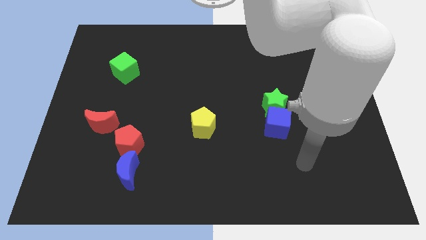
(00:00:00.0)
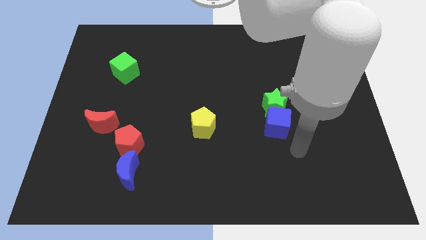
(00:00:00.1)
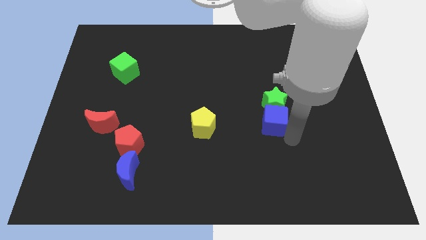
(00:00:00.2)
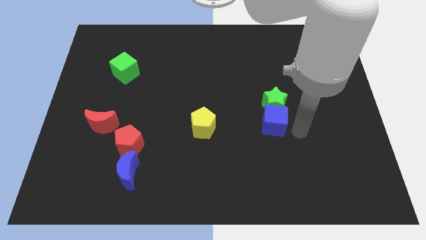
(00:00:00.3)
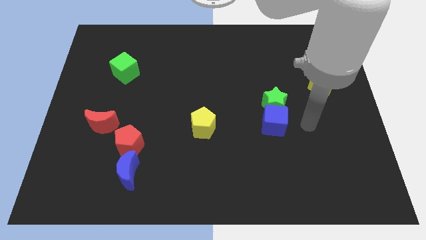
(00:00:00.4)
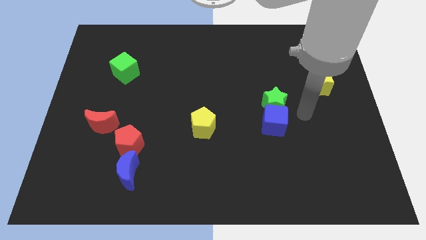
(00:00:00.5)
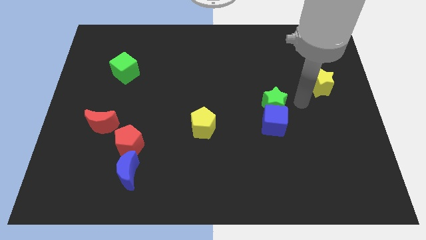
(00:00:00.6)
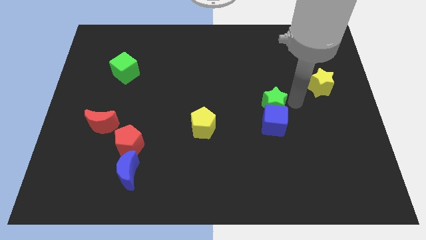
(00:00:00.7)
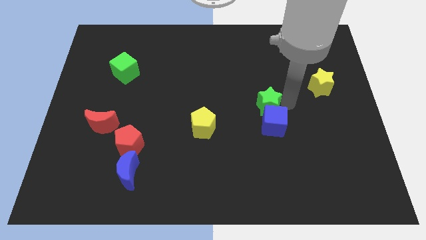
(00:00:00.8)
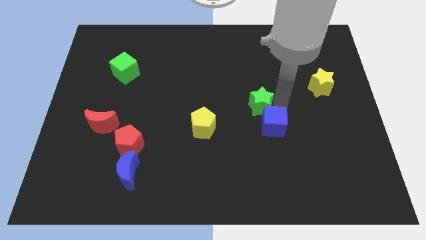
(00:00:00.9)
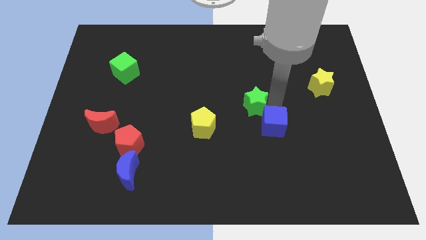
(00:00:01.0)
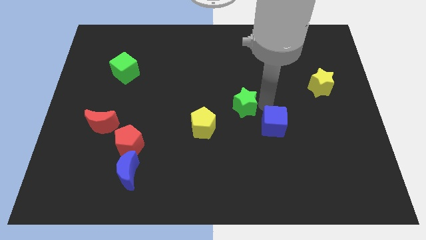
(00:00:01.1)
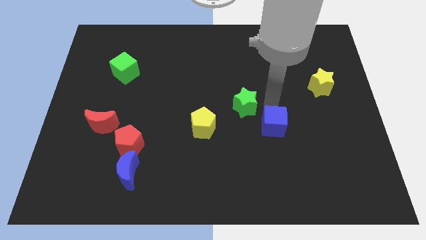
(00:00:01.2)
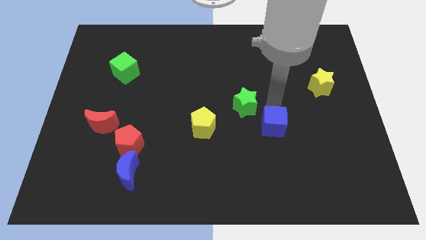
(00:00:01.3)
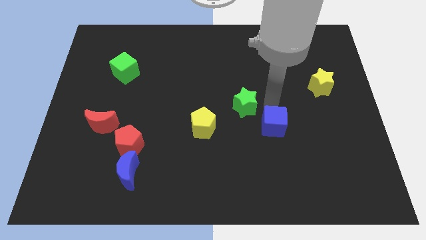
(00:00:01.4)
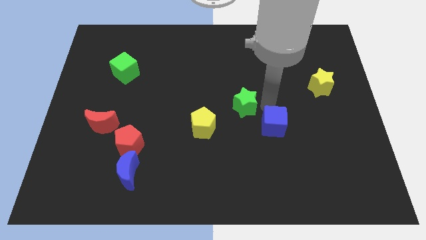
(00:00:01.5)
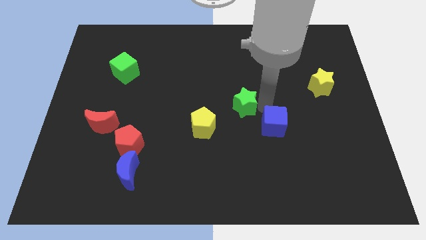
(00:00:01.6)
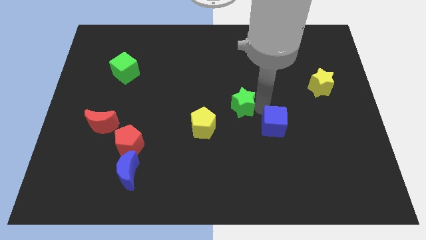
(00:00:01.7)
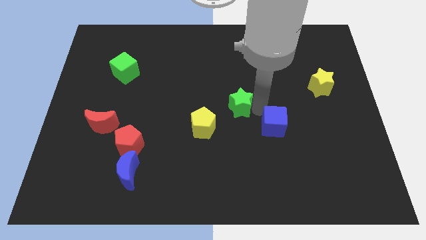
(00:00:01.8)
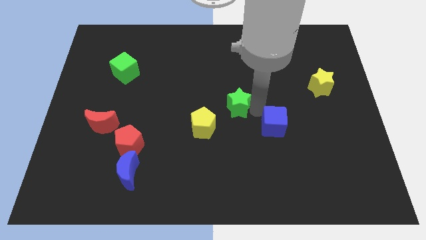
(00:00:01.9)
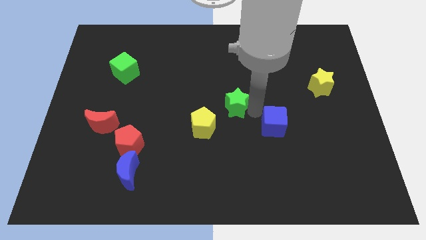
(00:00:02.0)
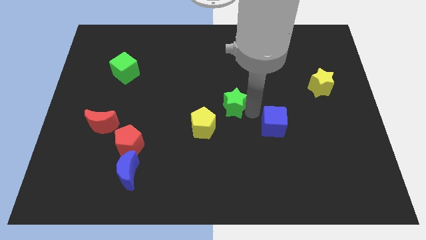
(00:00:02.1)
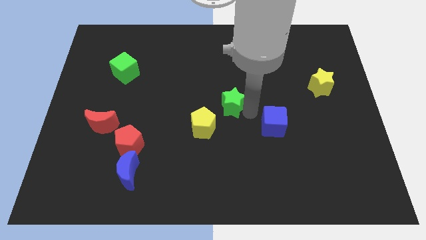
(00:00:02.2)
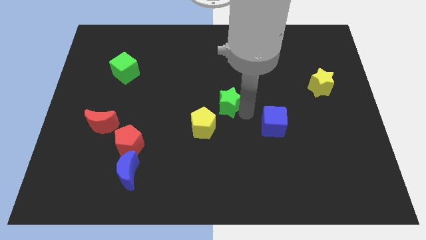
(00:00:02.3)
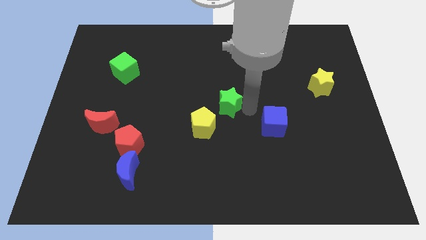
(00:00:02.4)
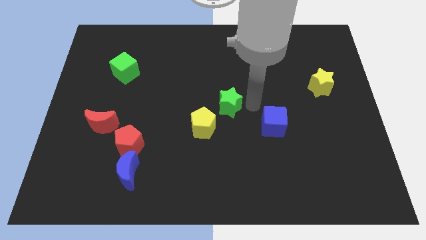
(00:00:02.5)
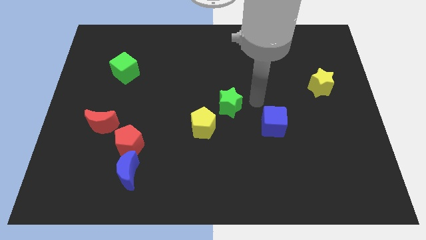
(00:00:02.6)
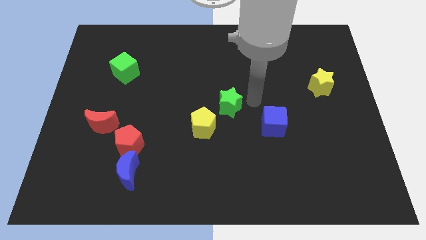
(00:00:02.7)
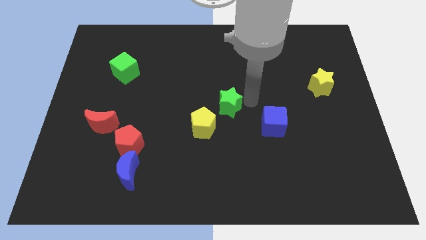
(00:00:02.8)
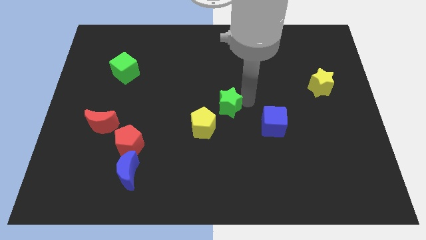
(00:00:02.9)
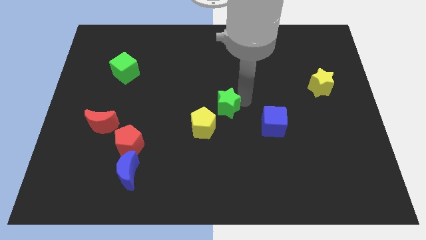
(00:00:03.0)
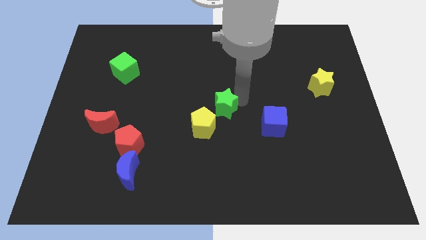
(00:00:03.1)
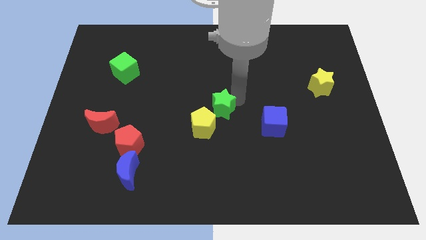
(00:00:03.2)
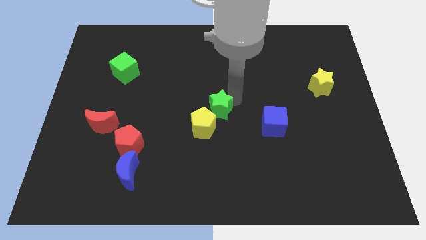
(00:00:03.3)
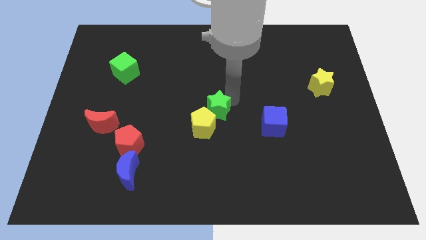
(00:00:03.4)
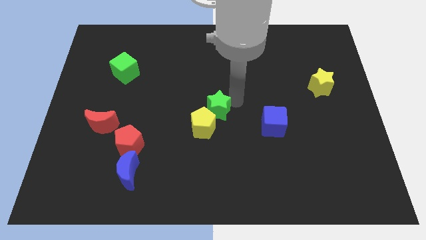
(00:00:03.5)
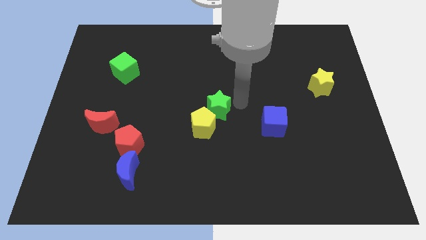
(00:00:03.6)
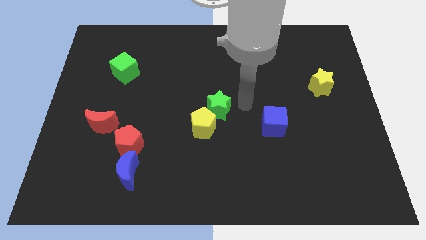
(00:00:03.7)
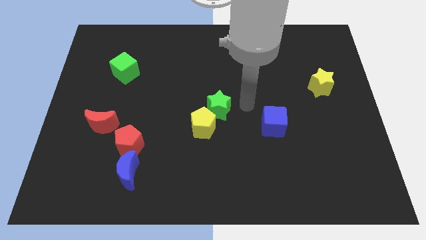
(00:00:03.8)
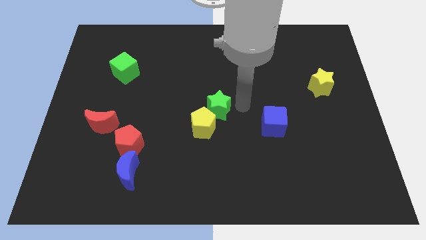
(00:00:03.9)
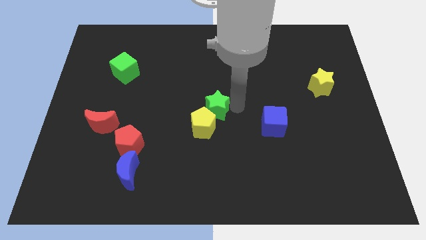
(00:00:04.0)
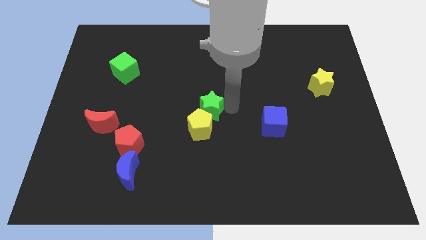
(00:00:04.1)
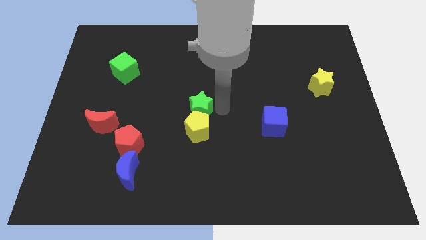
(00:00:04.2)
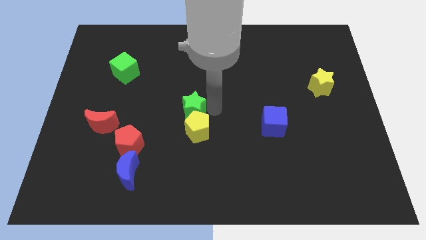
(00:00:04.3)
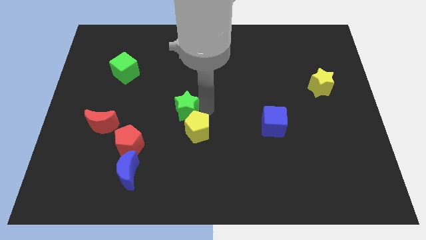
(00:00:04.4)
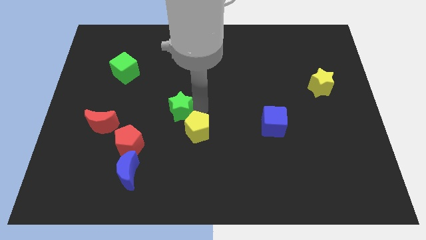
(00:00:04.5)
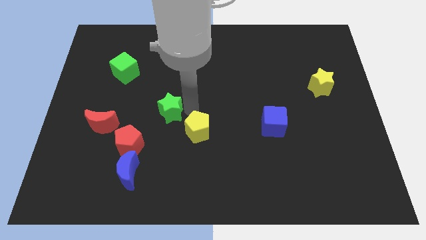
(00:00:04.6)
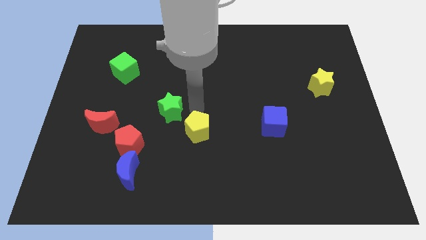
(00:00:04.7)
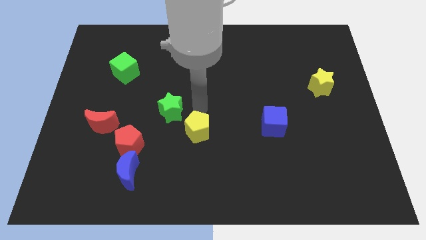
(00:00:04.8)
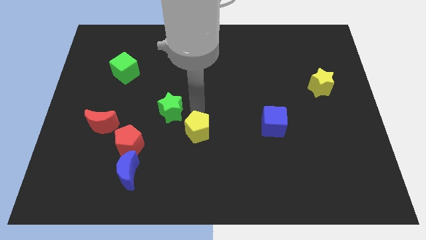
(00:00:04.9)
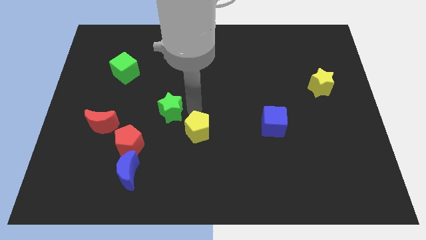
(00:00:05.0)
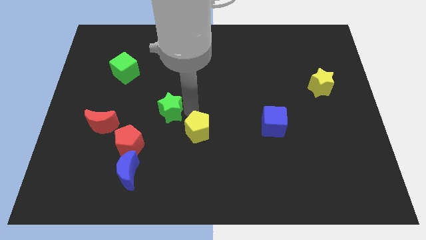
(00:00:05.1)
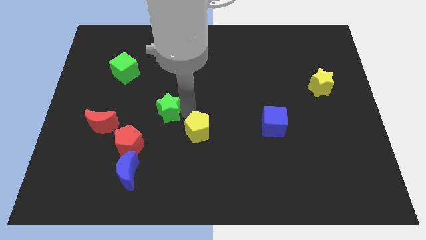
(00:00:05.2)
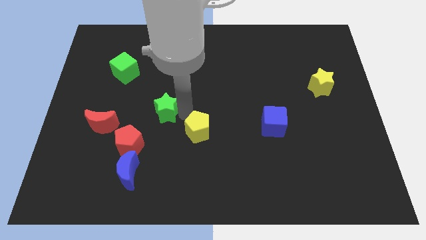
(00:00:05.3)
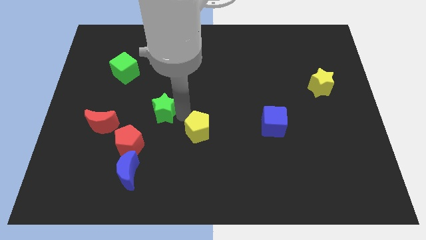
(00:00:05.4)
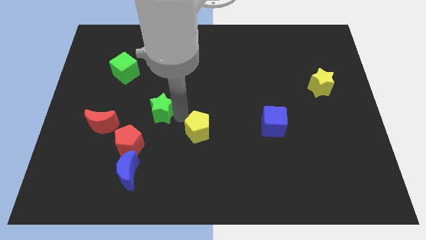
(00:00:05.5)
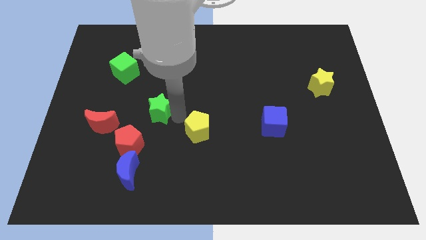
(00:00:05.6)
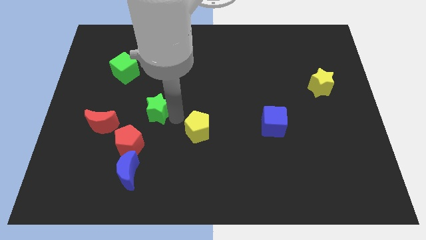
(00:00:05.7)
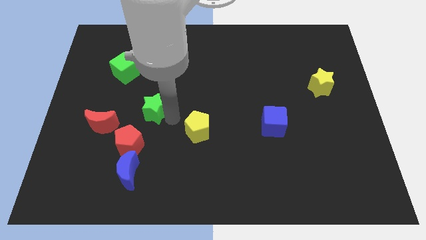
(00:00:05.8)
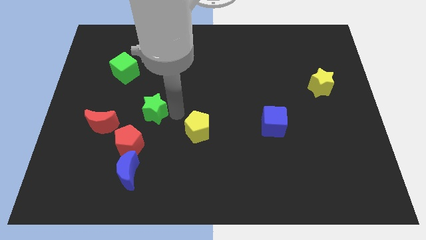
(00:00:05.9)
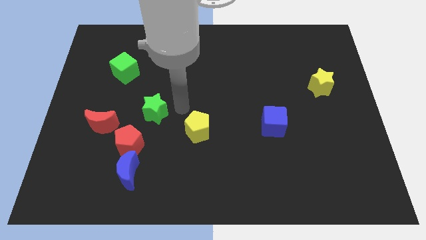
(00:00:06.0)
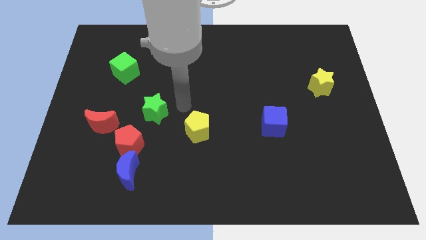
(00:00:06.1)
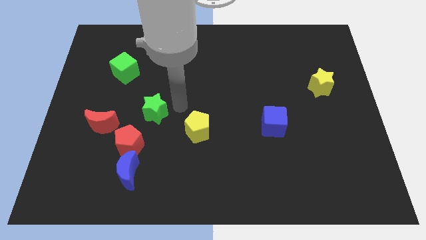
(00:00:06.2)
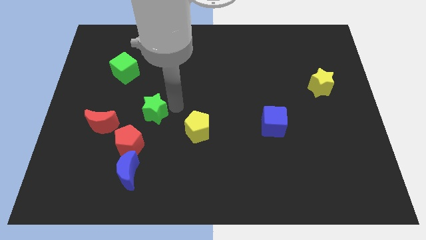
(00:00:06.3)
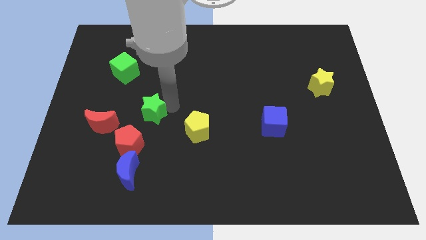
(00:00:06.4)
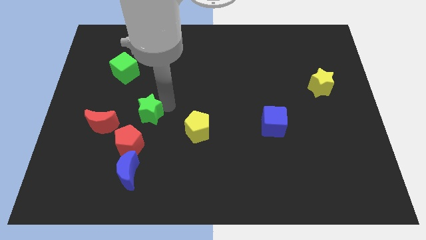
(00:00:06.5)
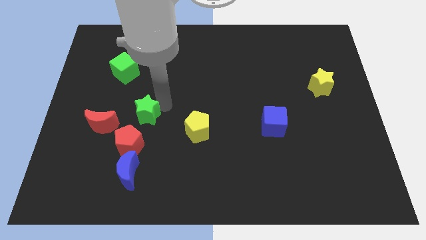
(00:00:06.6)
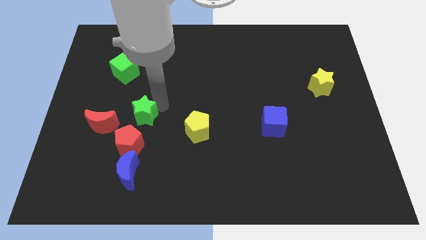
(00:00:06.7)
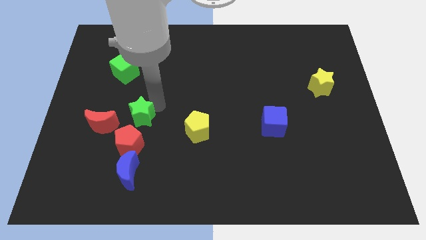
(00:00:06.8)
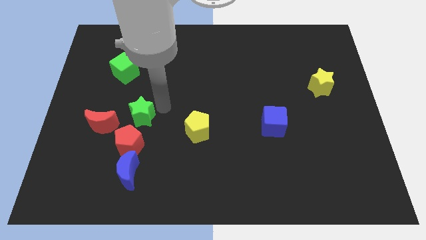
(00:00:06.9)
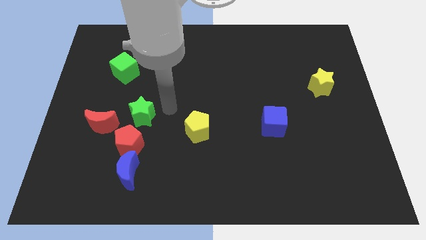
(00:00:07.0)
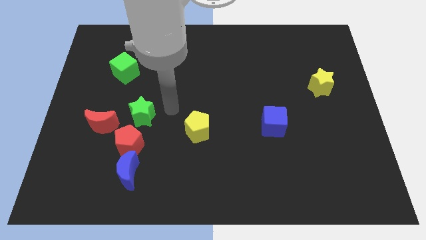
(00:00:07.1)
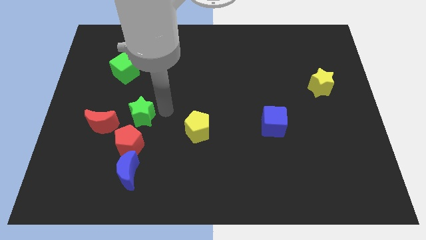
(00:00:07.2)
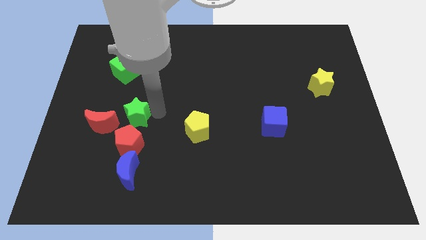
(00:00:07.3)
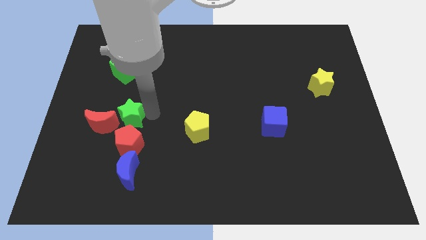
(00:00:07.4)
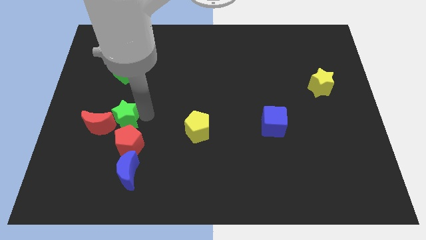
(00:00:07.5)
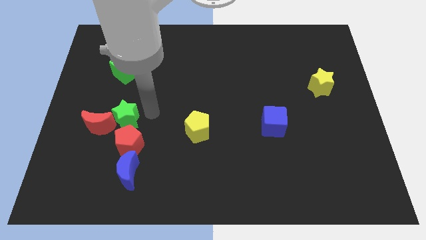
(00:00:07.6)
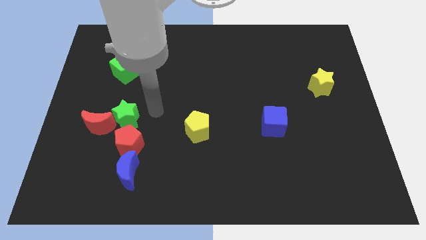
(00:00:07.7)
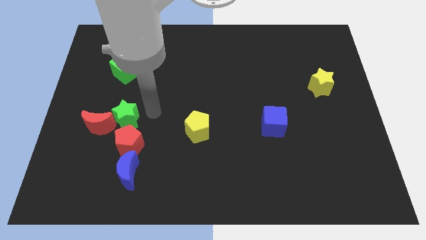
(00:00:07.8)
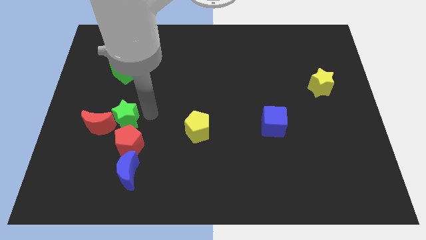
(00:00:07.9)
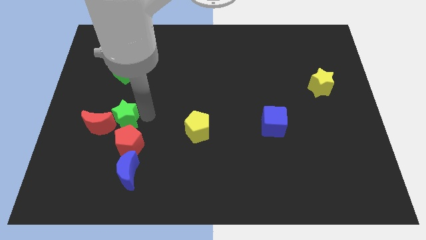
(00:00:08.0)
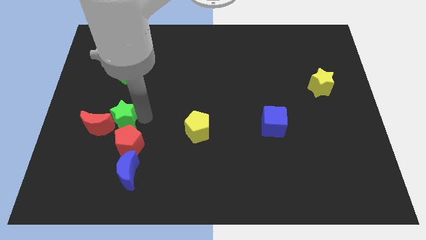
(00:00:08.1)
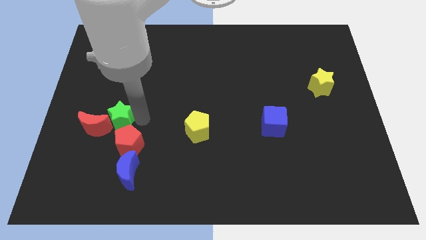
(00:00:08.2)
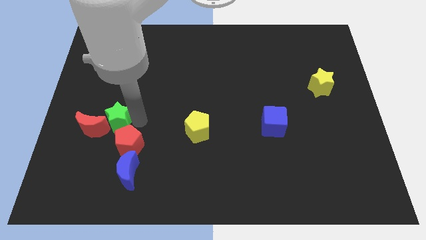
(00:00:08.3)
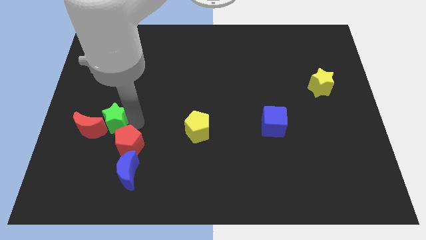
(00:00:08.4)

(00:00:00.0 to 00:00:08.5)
slide the green star towards the red moon
